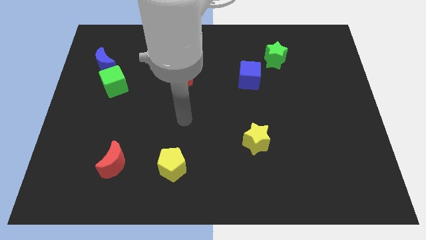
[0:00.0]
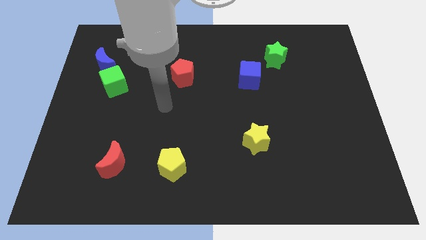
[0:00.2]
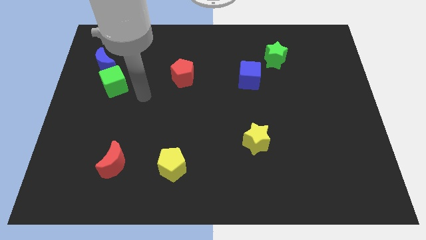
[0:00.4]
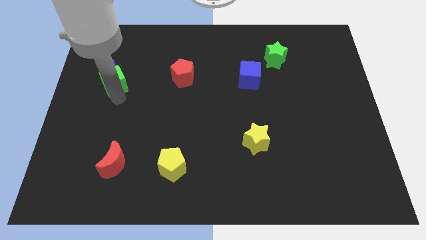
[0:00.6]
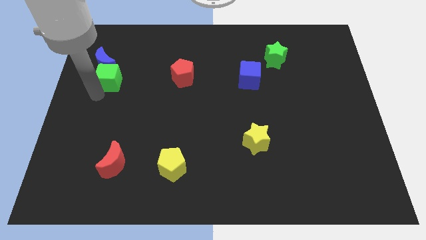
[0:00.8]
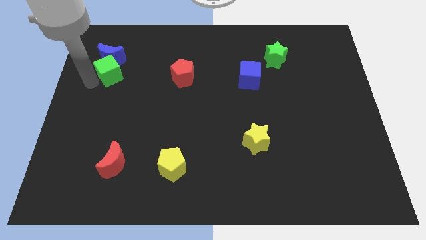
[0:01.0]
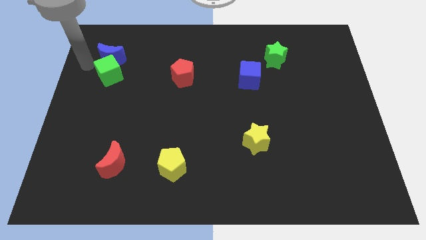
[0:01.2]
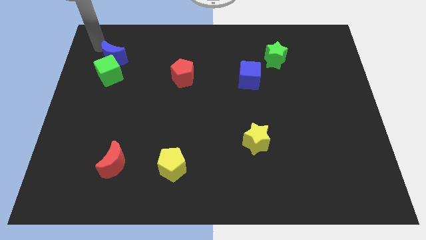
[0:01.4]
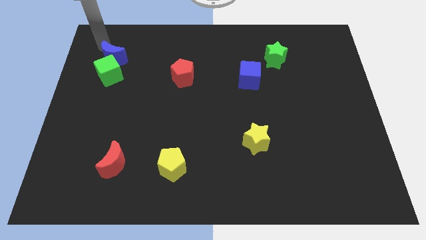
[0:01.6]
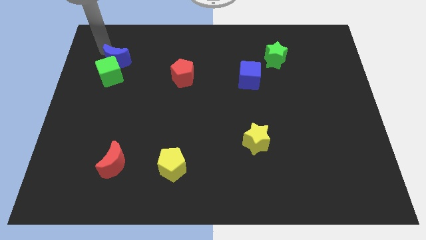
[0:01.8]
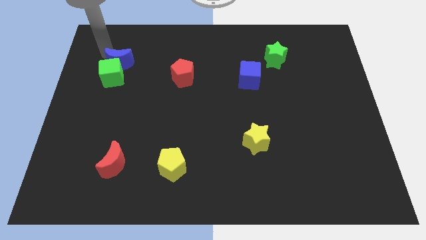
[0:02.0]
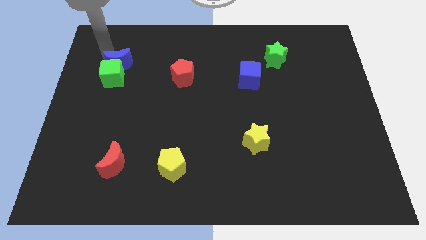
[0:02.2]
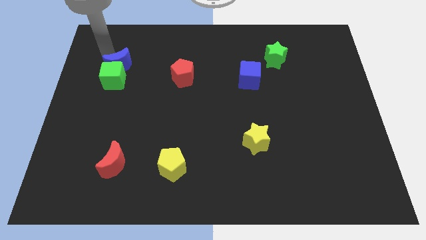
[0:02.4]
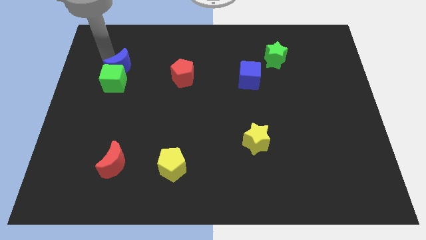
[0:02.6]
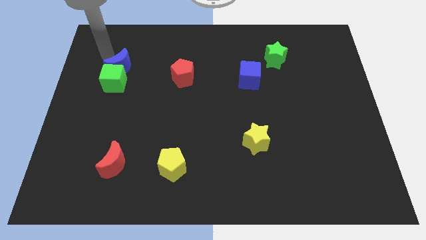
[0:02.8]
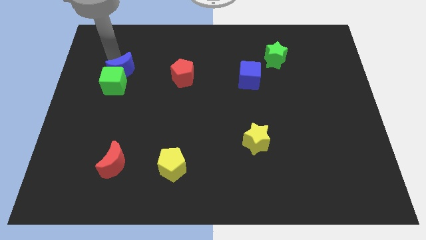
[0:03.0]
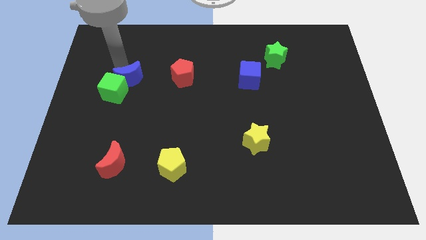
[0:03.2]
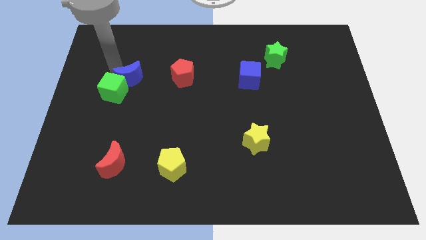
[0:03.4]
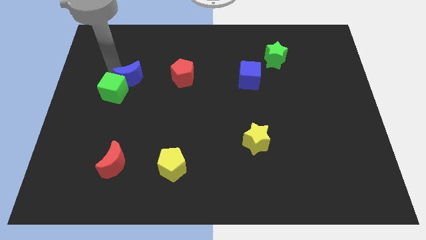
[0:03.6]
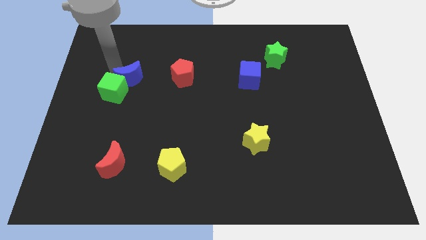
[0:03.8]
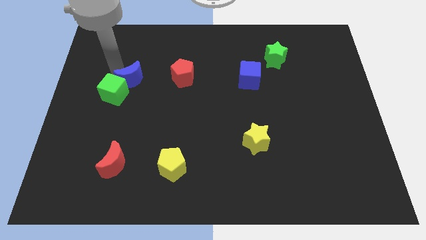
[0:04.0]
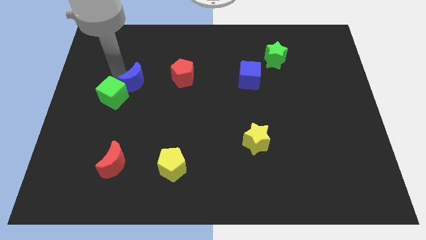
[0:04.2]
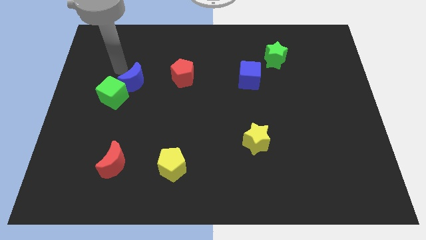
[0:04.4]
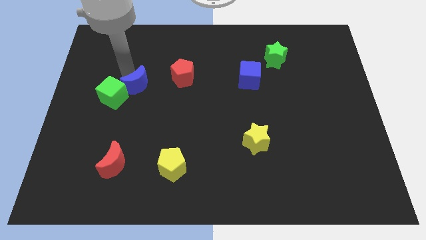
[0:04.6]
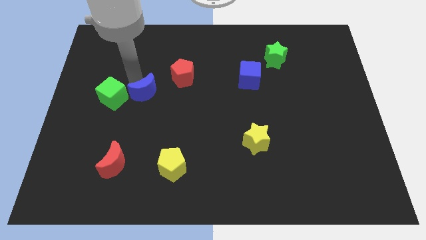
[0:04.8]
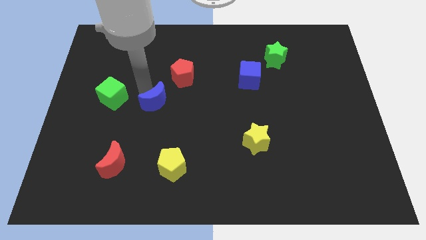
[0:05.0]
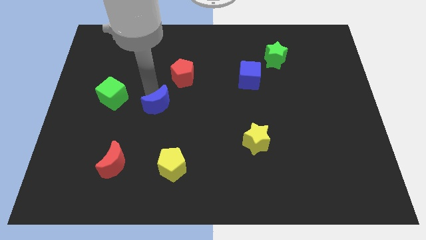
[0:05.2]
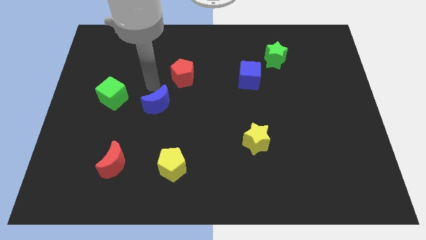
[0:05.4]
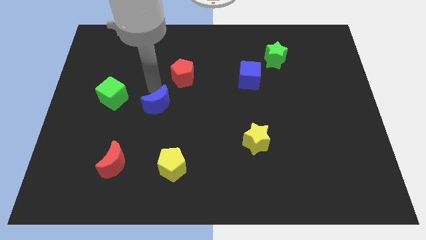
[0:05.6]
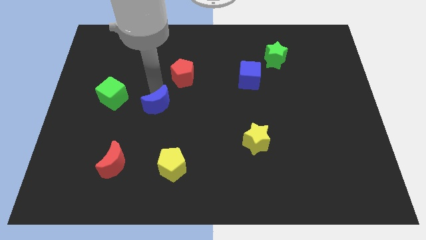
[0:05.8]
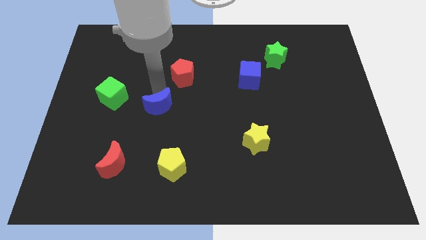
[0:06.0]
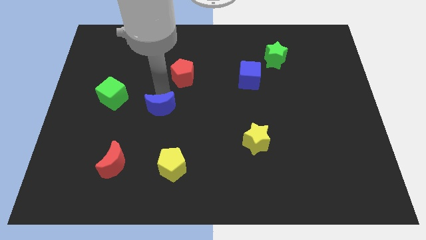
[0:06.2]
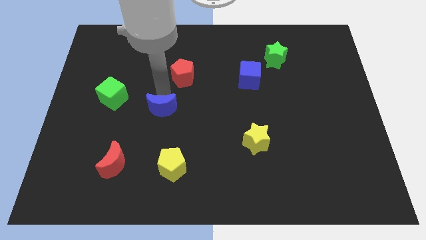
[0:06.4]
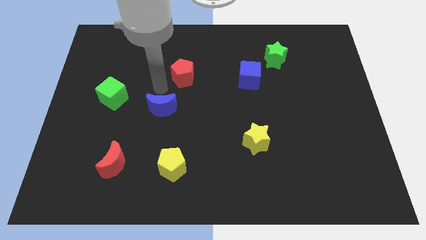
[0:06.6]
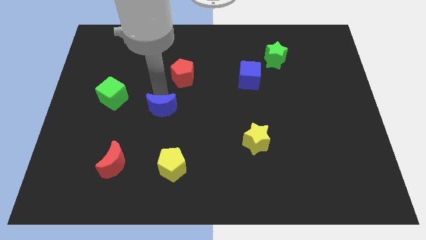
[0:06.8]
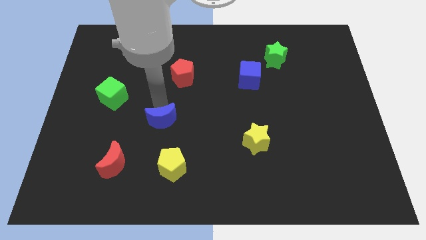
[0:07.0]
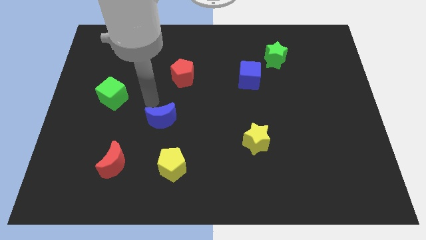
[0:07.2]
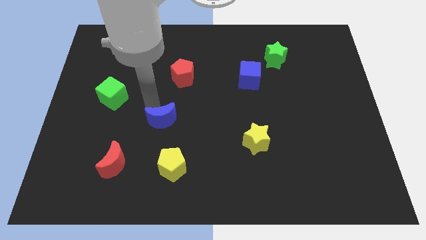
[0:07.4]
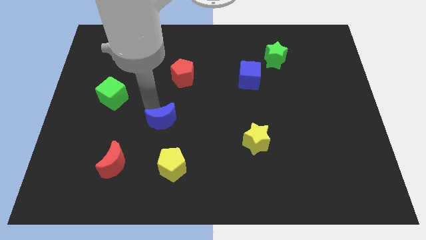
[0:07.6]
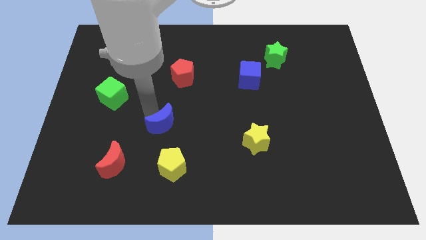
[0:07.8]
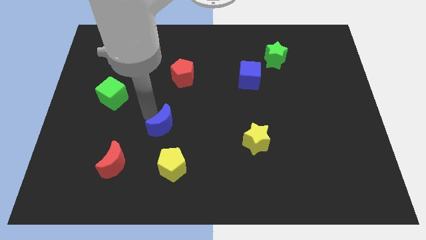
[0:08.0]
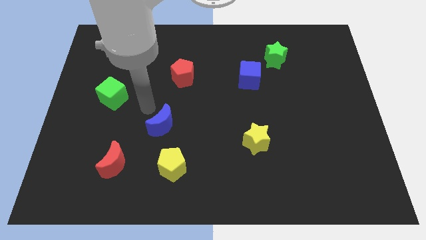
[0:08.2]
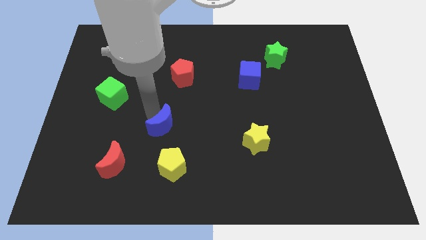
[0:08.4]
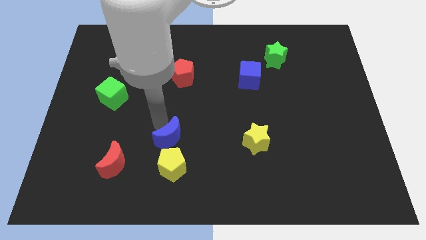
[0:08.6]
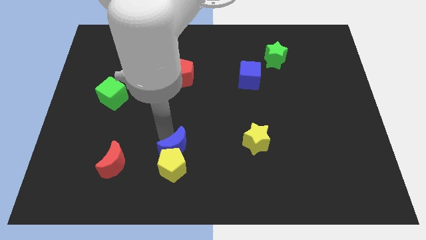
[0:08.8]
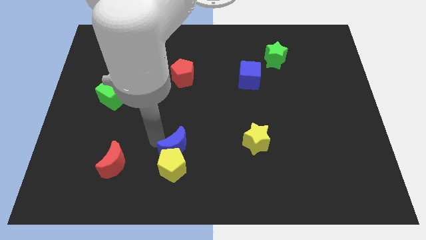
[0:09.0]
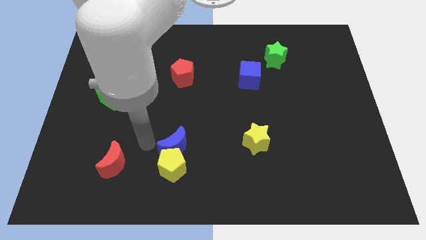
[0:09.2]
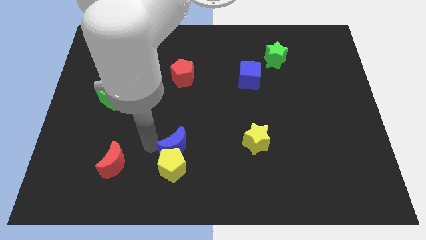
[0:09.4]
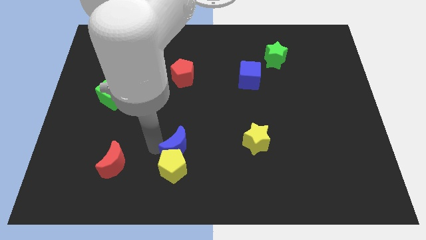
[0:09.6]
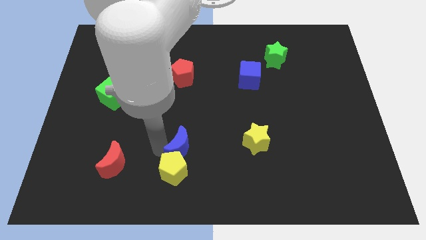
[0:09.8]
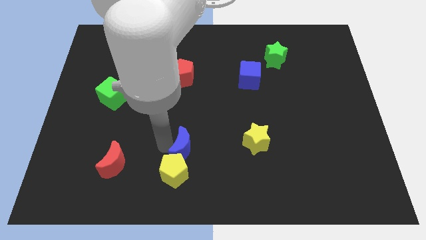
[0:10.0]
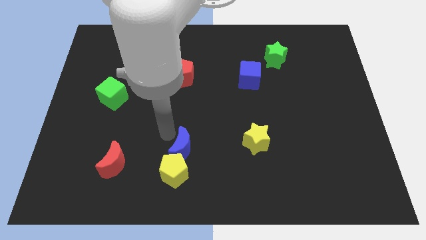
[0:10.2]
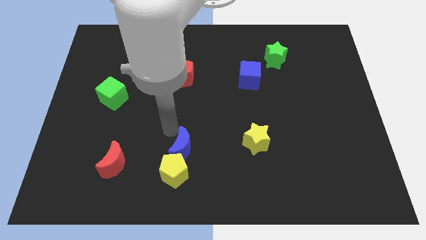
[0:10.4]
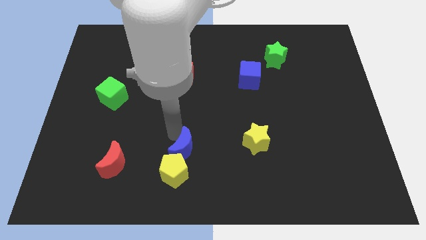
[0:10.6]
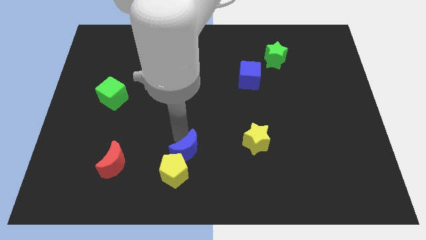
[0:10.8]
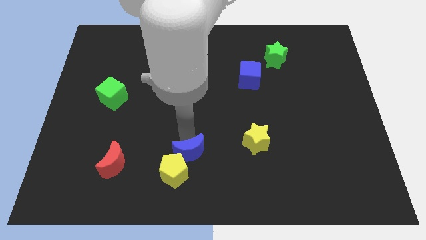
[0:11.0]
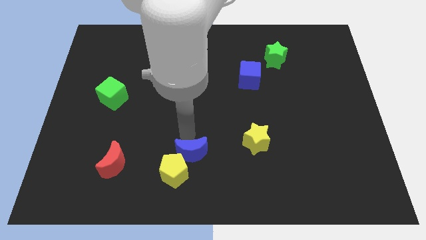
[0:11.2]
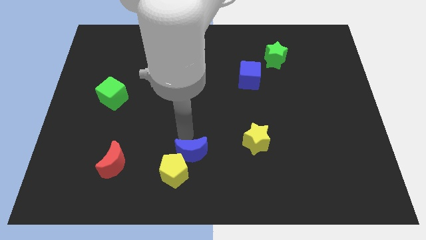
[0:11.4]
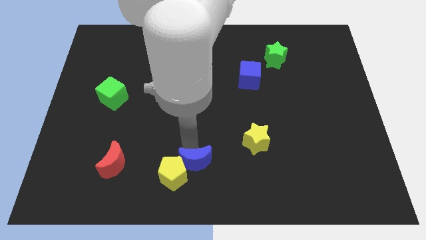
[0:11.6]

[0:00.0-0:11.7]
push the blue moon to the bottom side

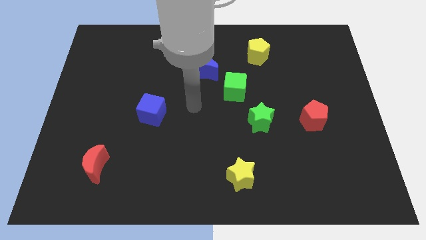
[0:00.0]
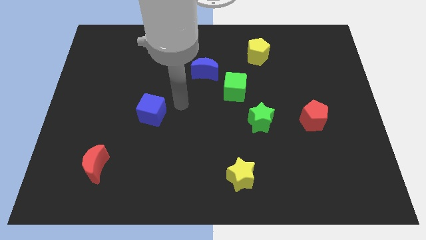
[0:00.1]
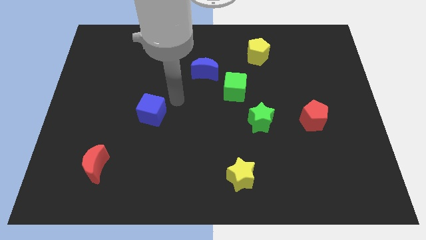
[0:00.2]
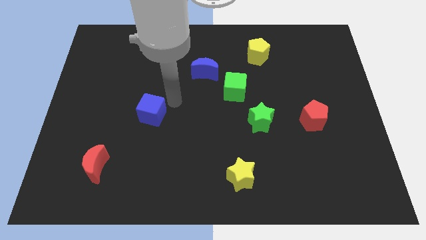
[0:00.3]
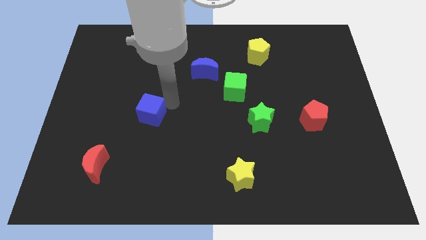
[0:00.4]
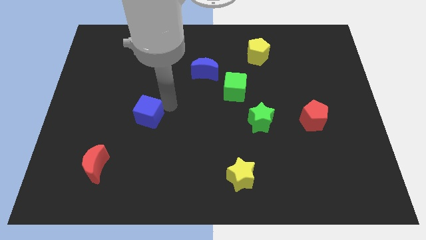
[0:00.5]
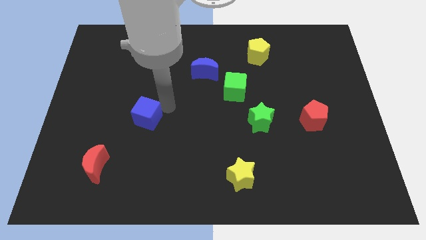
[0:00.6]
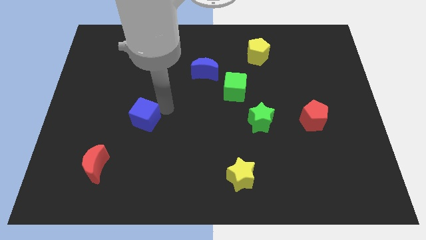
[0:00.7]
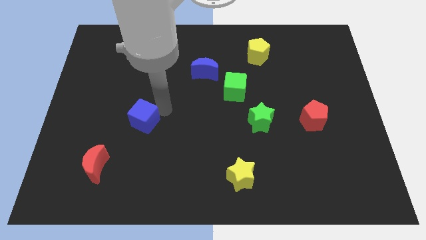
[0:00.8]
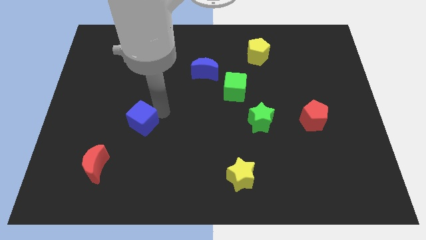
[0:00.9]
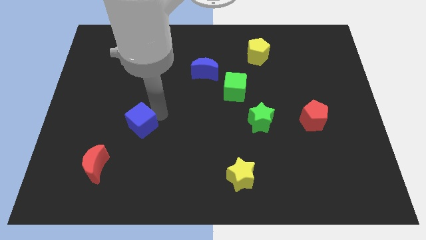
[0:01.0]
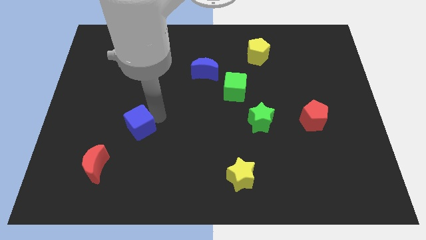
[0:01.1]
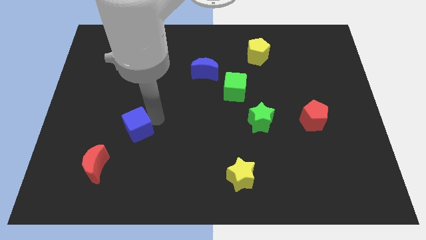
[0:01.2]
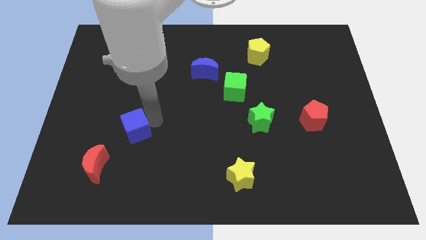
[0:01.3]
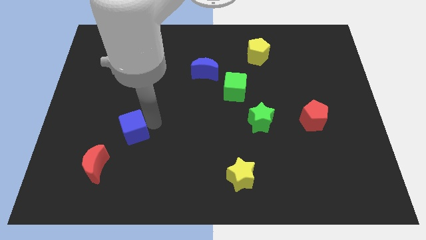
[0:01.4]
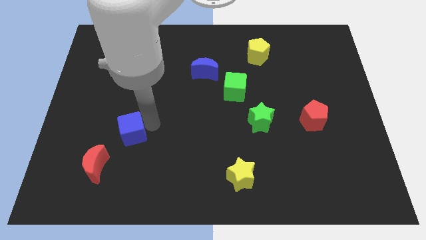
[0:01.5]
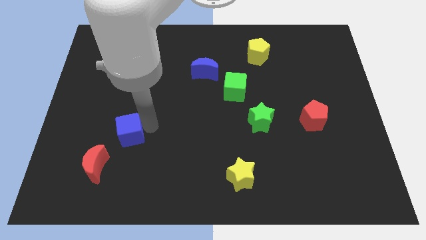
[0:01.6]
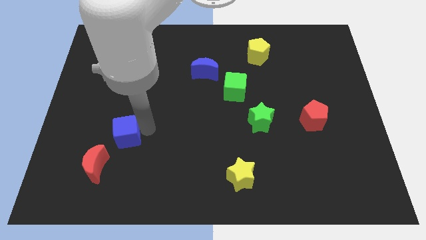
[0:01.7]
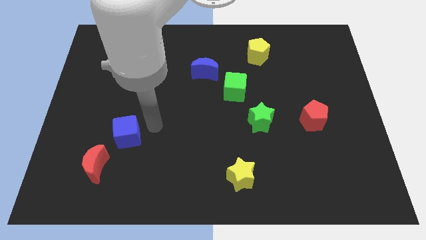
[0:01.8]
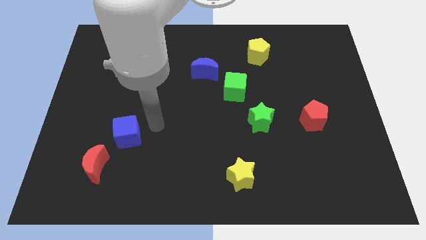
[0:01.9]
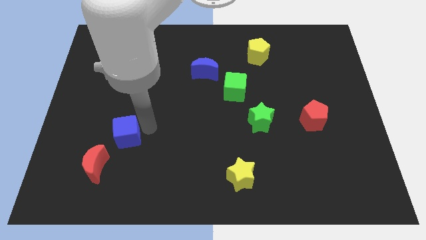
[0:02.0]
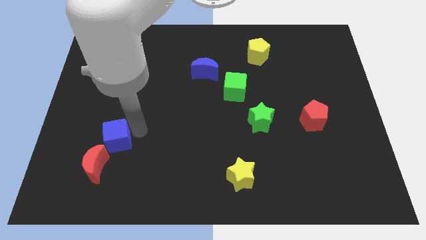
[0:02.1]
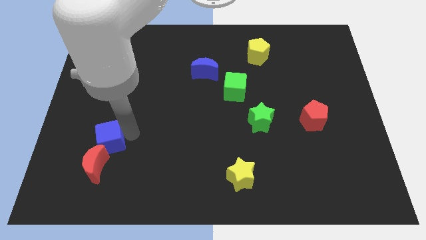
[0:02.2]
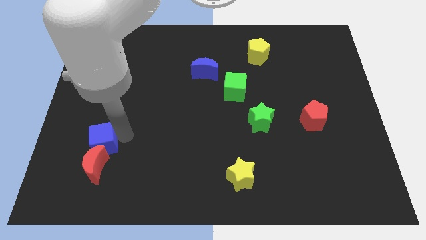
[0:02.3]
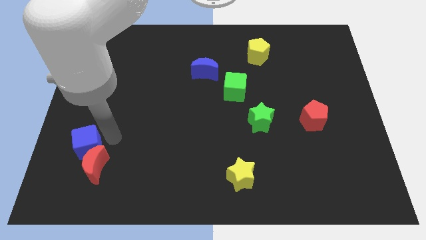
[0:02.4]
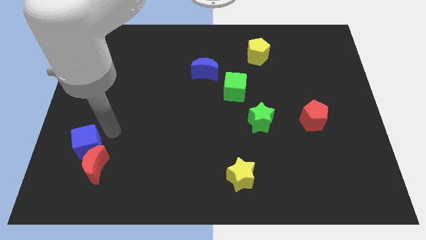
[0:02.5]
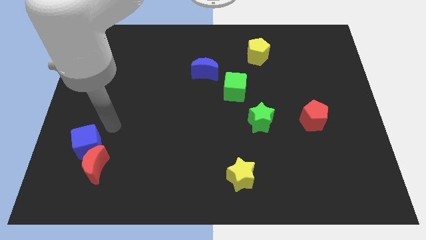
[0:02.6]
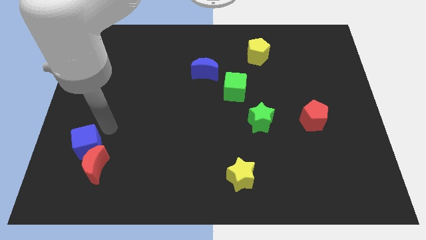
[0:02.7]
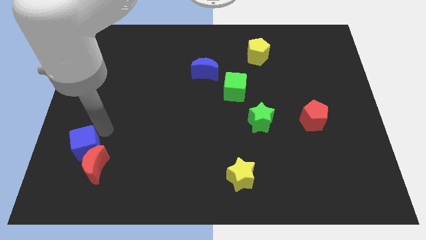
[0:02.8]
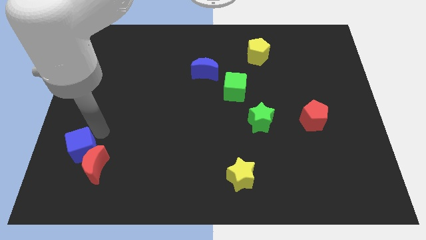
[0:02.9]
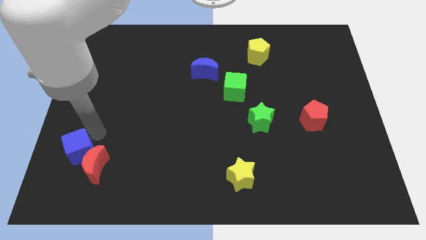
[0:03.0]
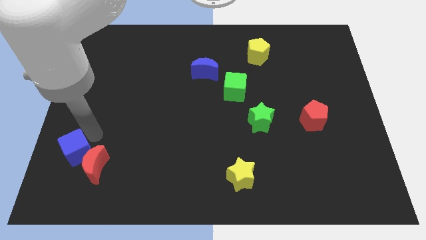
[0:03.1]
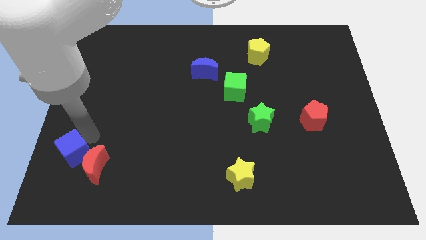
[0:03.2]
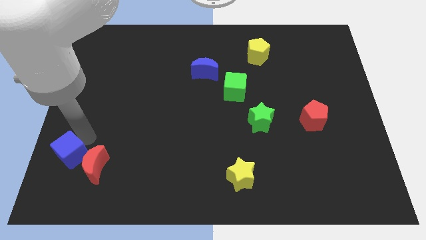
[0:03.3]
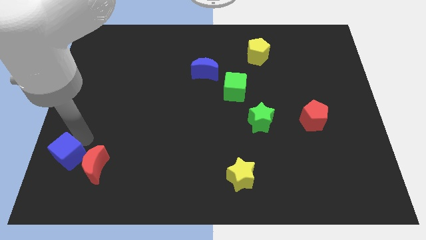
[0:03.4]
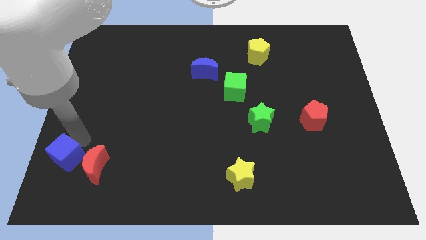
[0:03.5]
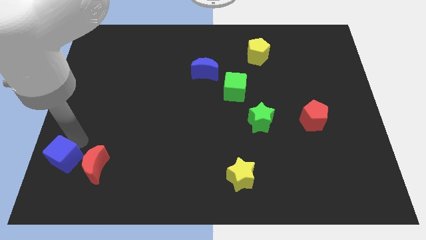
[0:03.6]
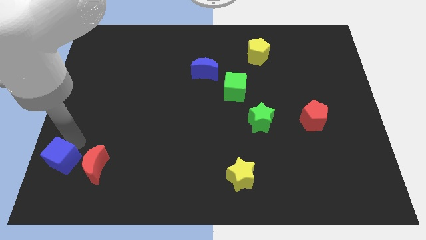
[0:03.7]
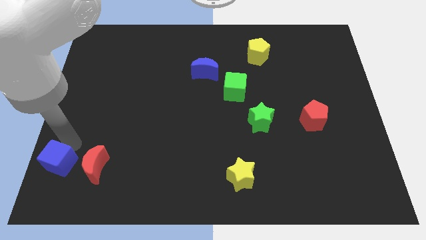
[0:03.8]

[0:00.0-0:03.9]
push the blue cube to the bottom left of the board
